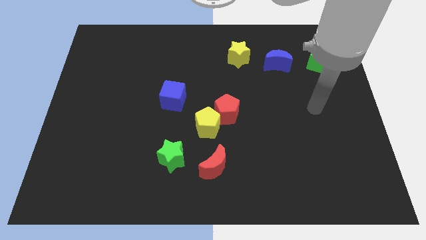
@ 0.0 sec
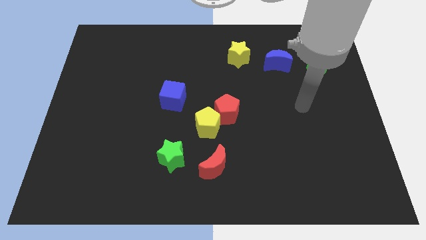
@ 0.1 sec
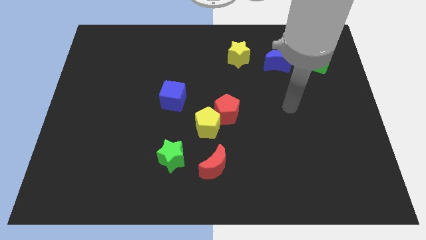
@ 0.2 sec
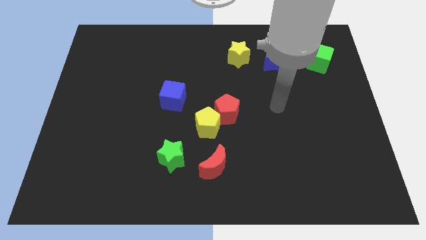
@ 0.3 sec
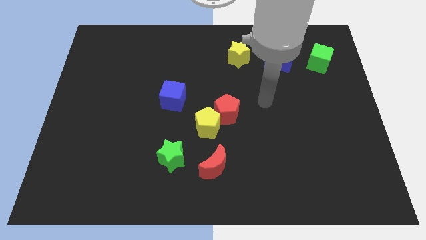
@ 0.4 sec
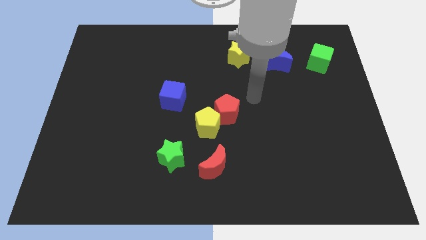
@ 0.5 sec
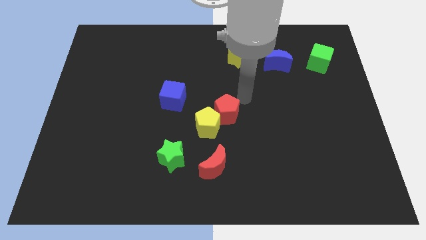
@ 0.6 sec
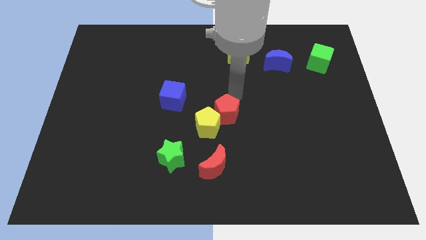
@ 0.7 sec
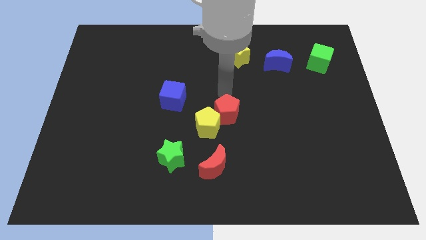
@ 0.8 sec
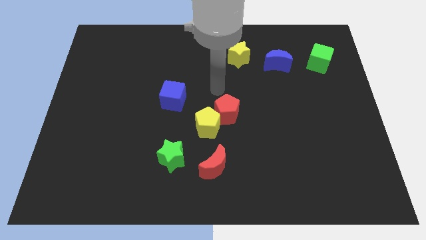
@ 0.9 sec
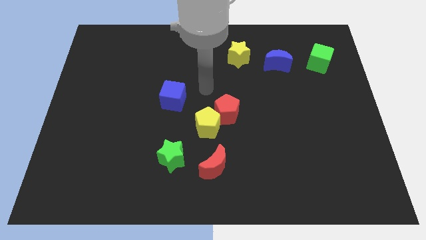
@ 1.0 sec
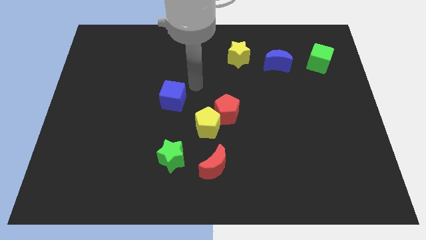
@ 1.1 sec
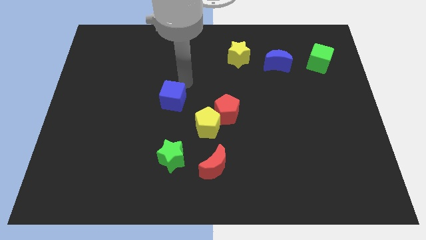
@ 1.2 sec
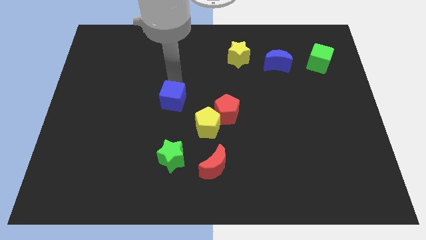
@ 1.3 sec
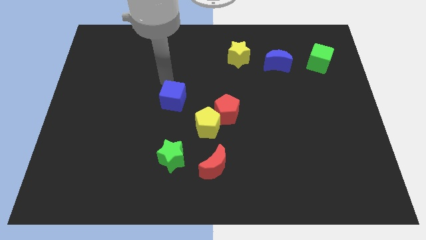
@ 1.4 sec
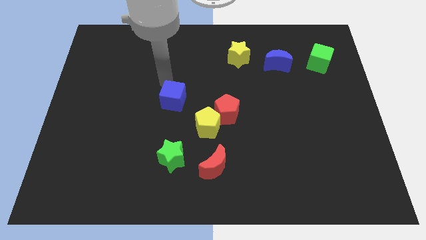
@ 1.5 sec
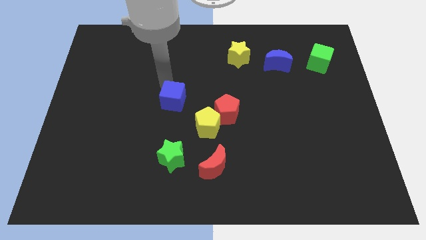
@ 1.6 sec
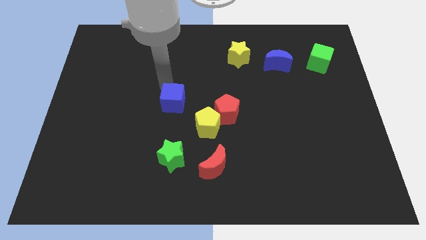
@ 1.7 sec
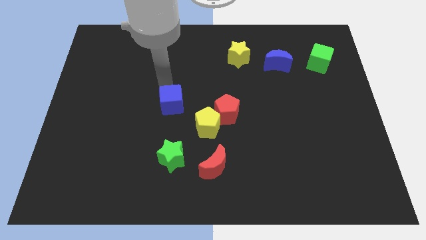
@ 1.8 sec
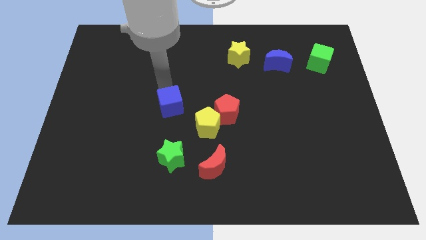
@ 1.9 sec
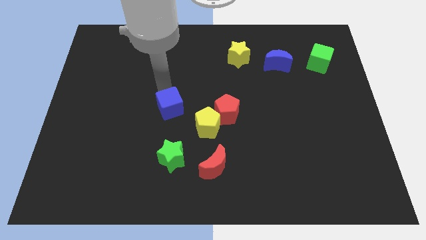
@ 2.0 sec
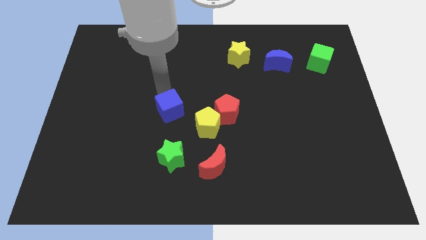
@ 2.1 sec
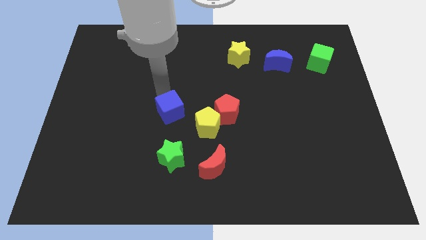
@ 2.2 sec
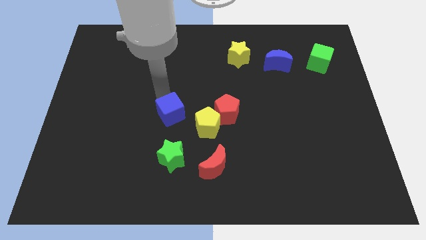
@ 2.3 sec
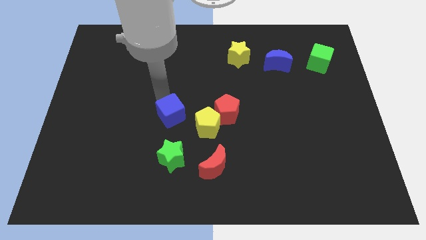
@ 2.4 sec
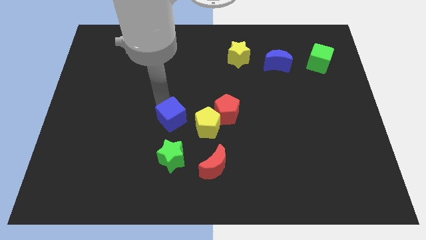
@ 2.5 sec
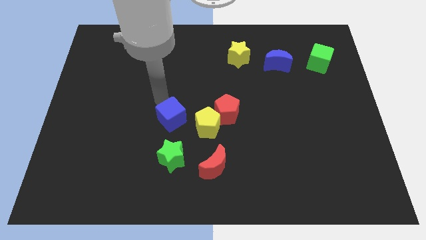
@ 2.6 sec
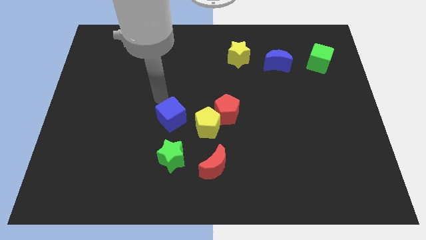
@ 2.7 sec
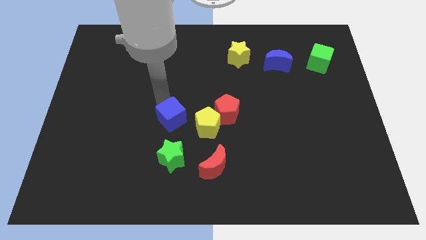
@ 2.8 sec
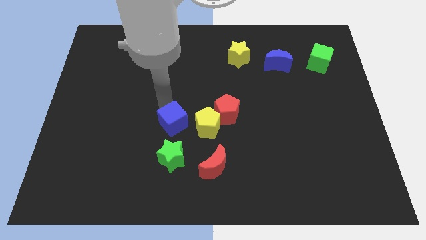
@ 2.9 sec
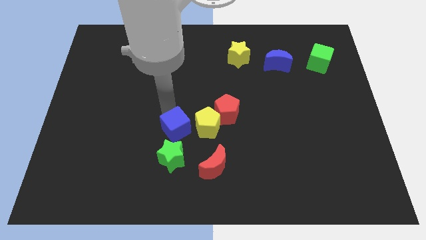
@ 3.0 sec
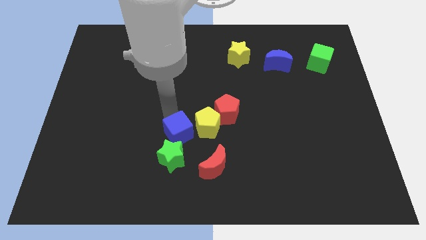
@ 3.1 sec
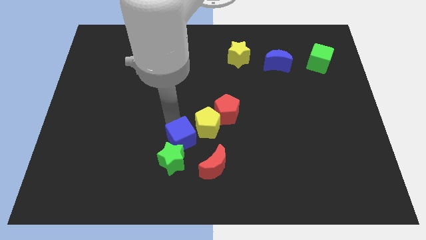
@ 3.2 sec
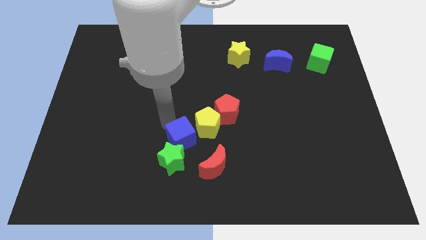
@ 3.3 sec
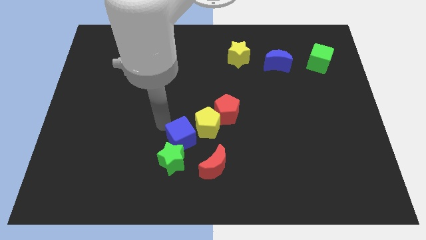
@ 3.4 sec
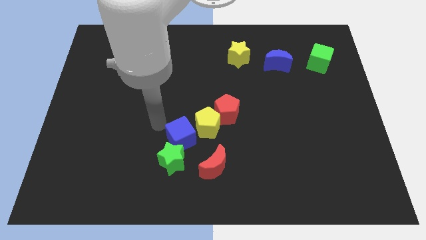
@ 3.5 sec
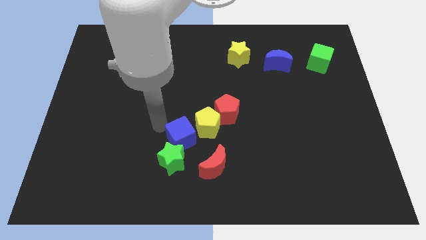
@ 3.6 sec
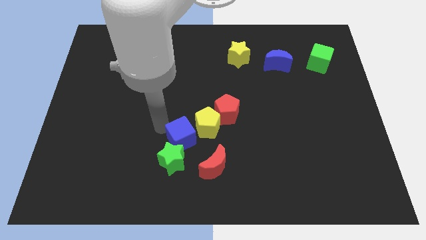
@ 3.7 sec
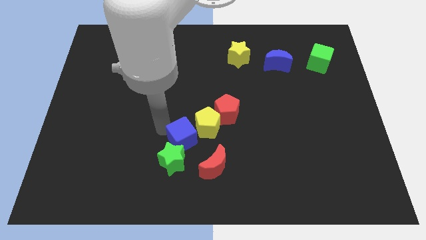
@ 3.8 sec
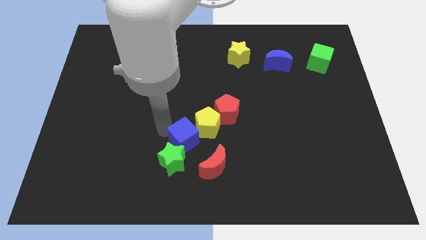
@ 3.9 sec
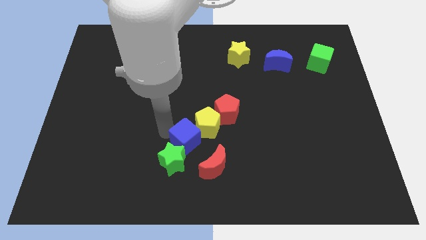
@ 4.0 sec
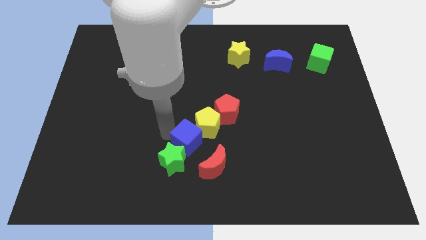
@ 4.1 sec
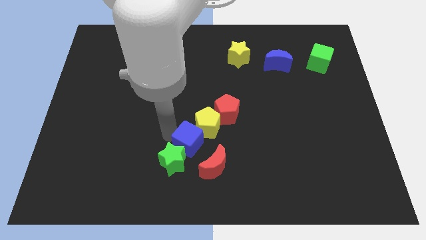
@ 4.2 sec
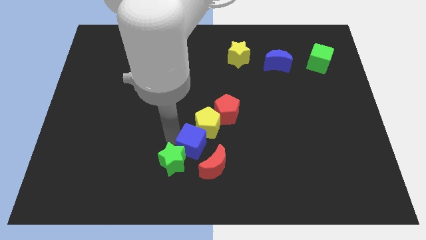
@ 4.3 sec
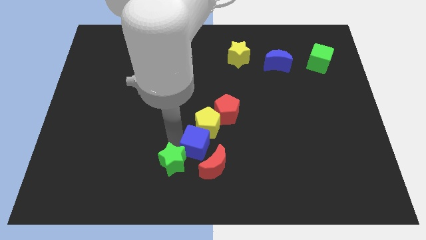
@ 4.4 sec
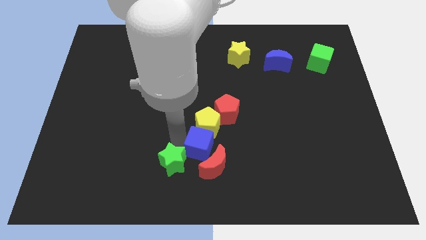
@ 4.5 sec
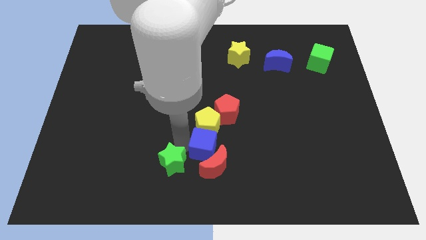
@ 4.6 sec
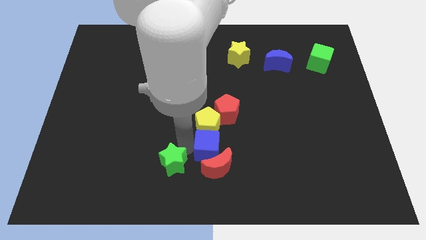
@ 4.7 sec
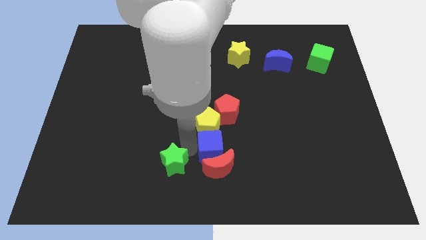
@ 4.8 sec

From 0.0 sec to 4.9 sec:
push the blue cube to the top right side of the red moon

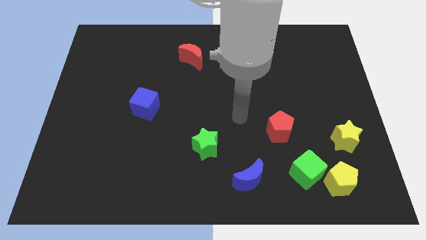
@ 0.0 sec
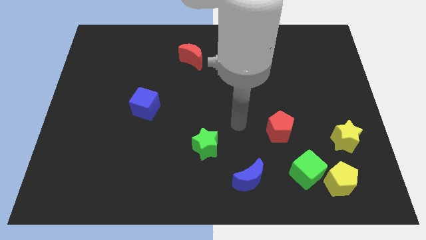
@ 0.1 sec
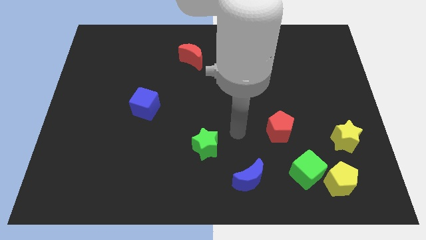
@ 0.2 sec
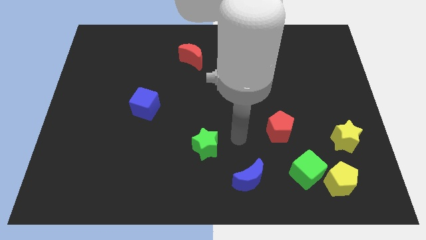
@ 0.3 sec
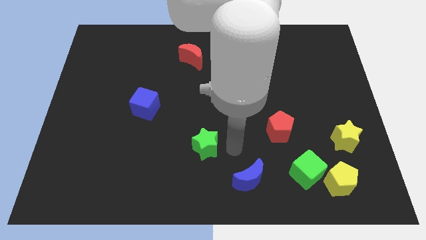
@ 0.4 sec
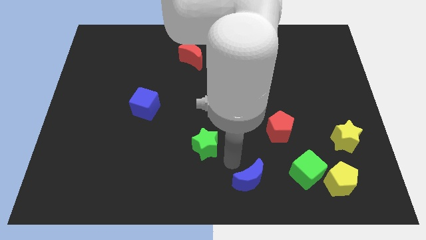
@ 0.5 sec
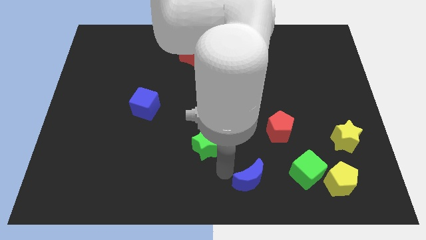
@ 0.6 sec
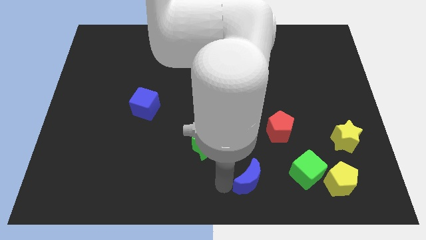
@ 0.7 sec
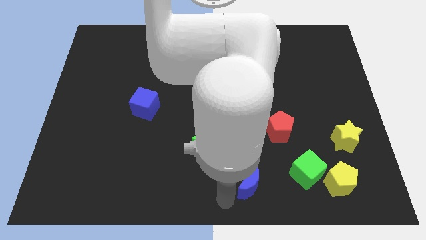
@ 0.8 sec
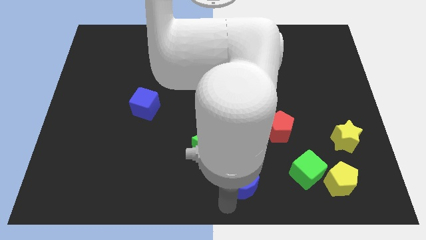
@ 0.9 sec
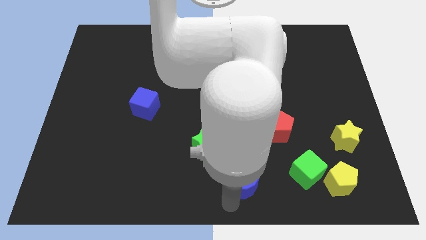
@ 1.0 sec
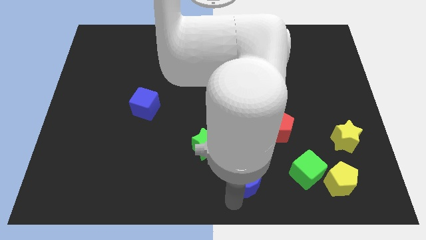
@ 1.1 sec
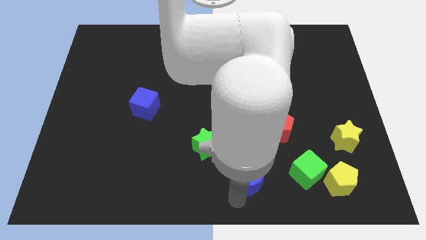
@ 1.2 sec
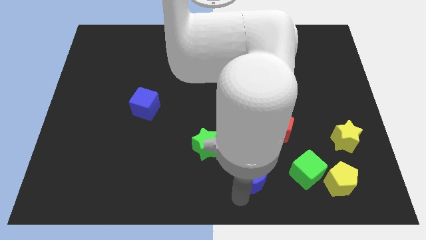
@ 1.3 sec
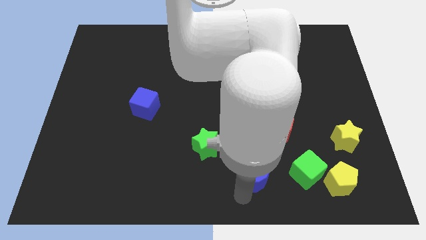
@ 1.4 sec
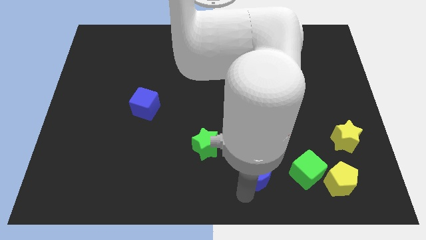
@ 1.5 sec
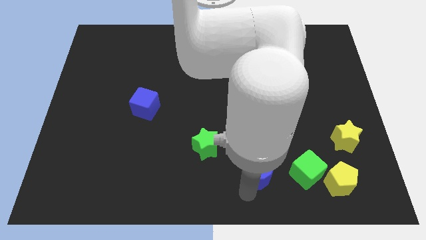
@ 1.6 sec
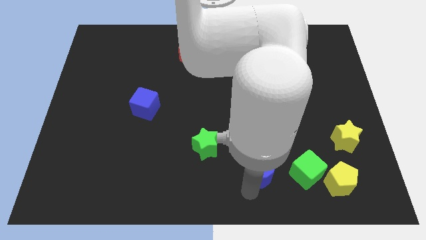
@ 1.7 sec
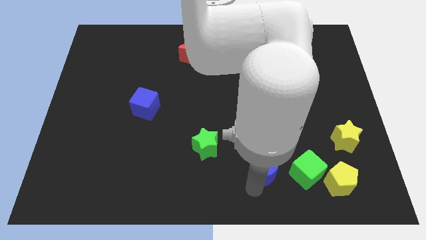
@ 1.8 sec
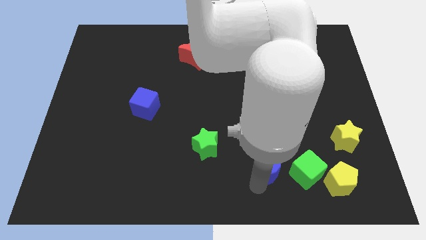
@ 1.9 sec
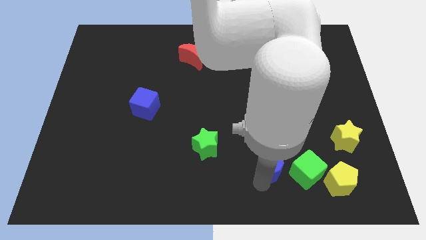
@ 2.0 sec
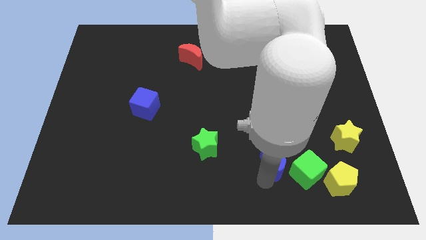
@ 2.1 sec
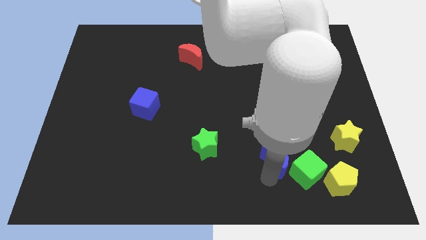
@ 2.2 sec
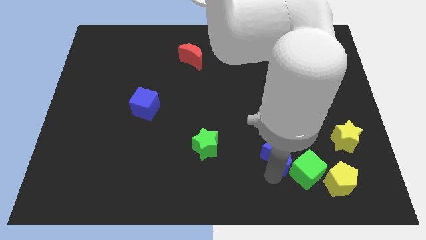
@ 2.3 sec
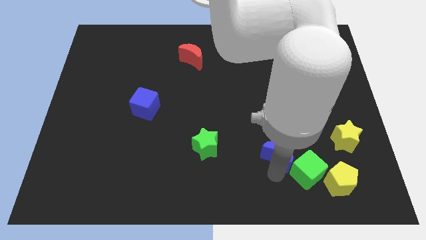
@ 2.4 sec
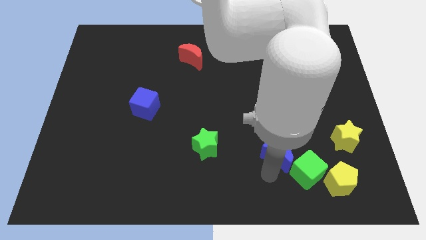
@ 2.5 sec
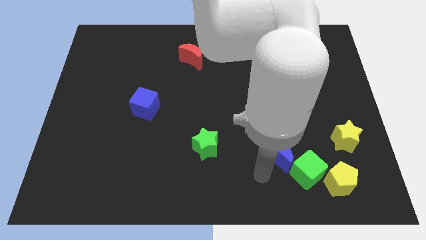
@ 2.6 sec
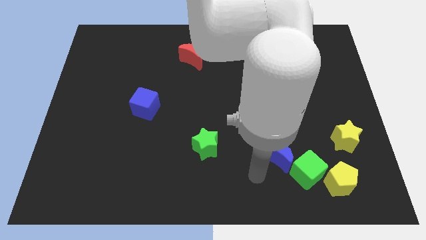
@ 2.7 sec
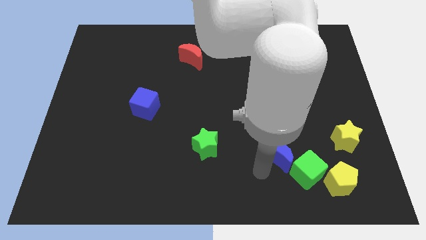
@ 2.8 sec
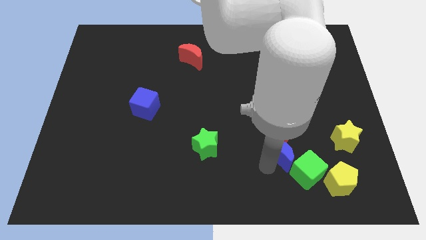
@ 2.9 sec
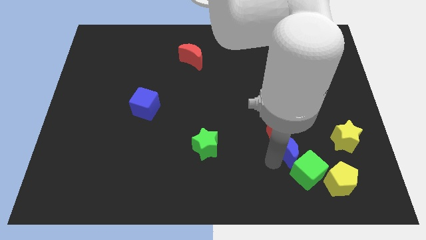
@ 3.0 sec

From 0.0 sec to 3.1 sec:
move the blue moon to the left of the yellow star
